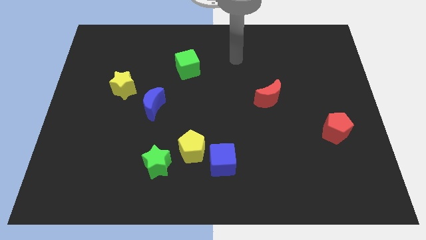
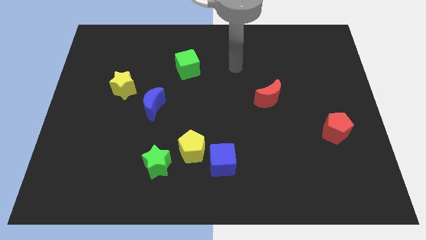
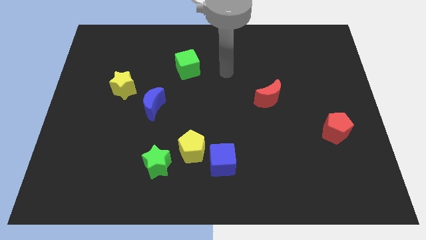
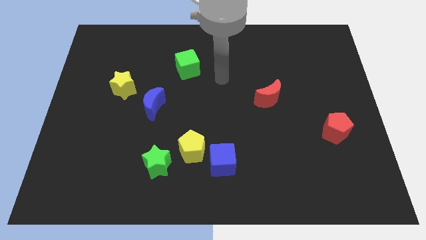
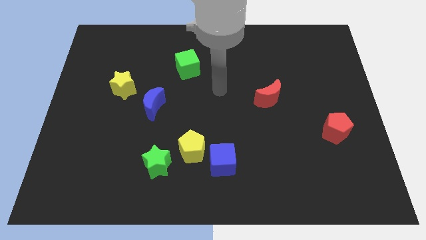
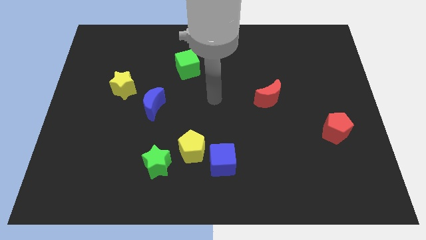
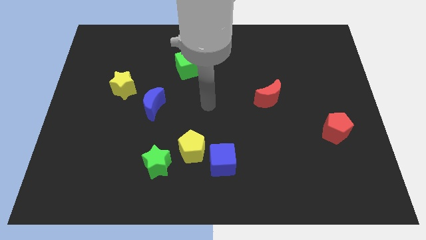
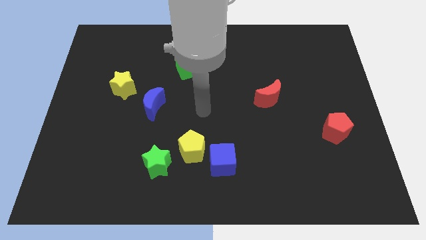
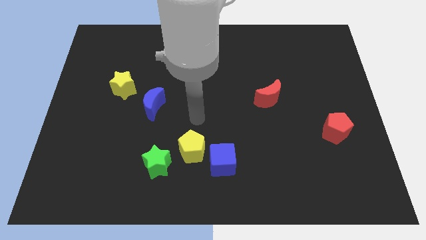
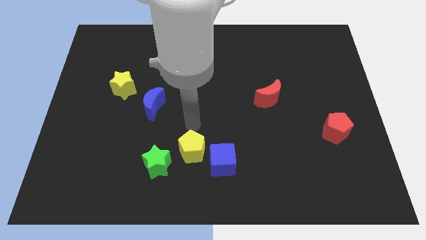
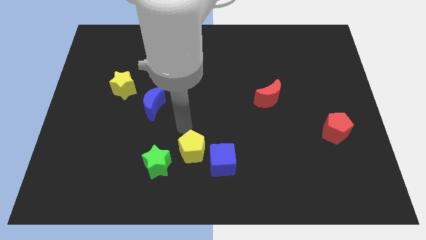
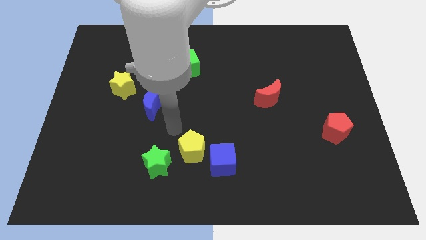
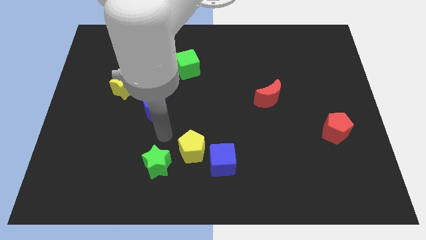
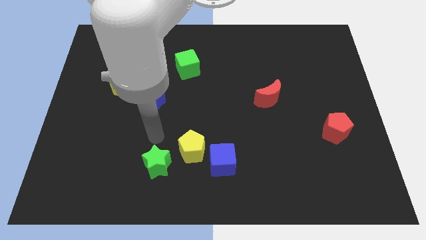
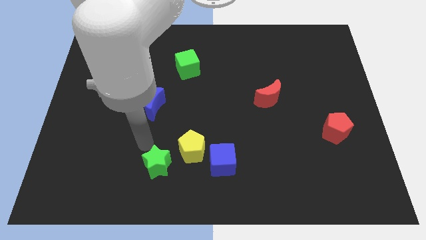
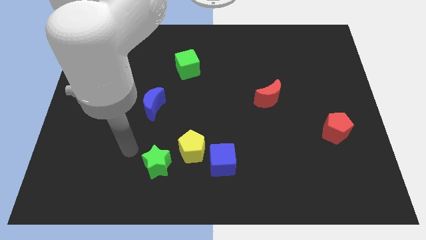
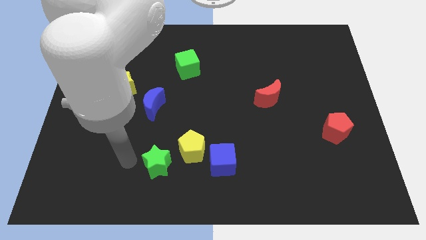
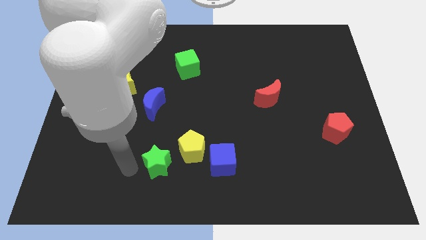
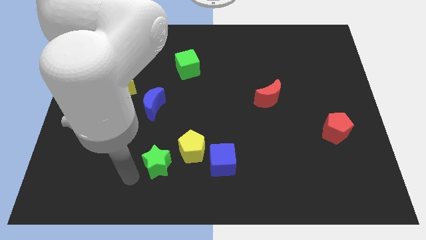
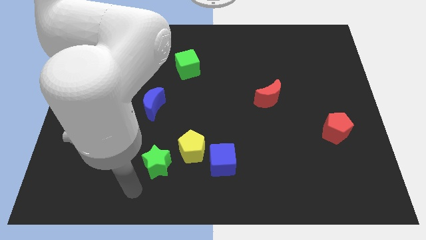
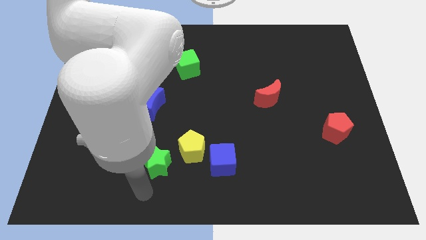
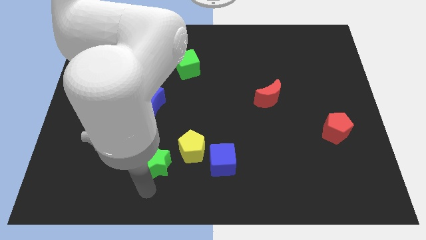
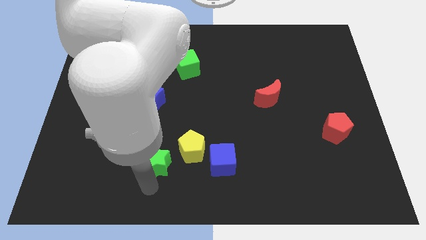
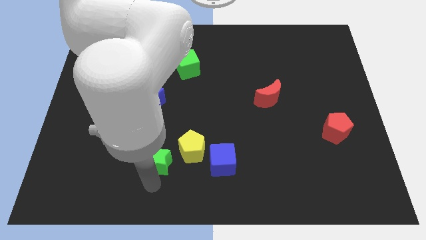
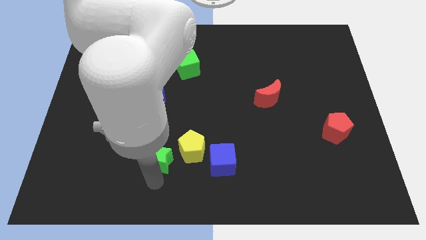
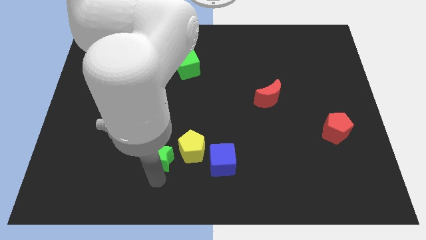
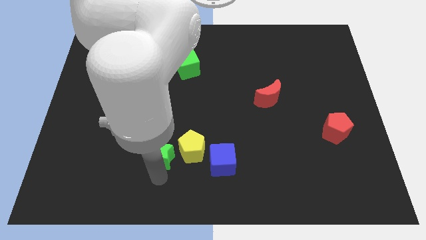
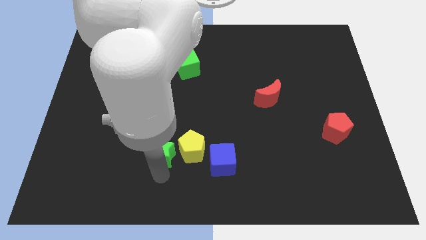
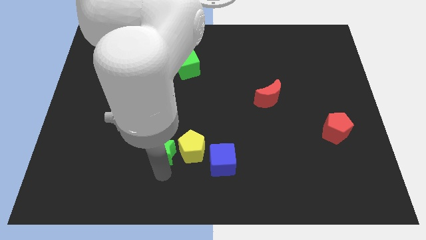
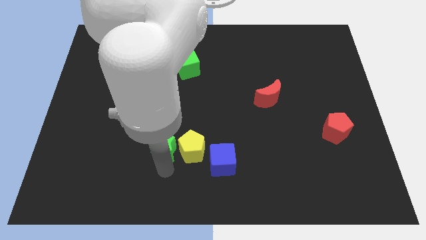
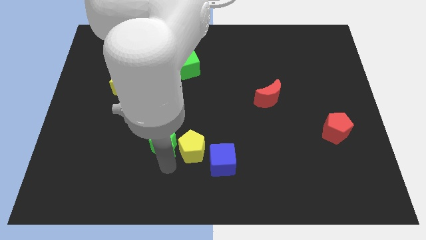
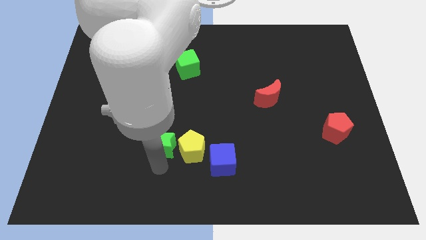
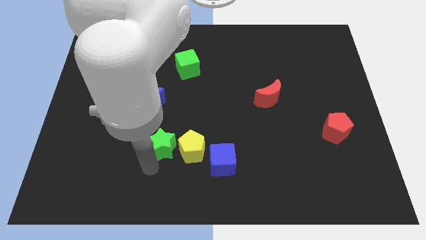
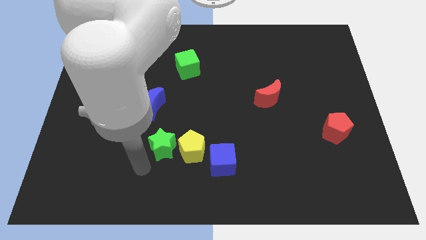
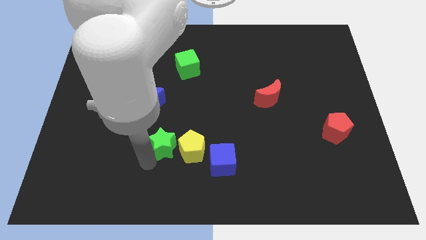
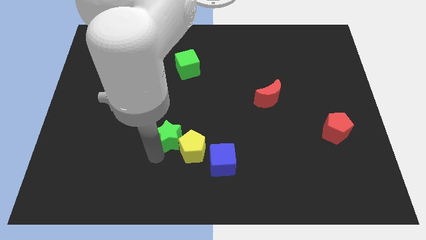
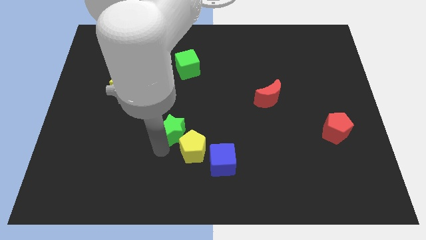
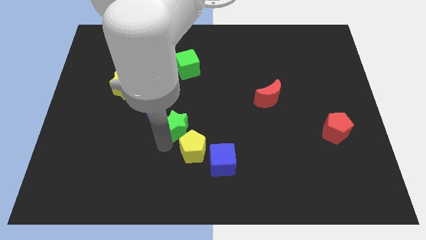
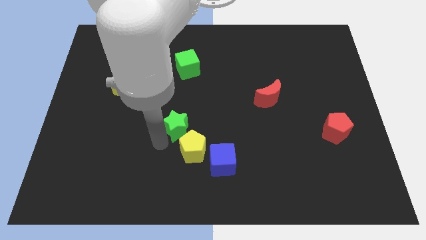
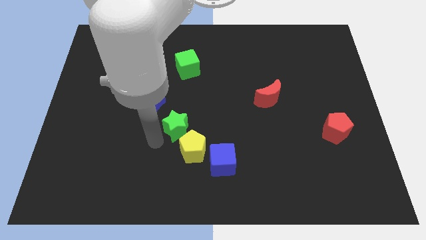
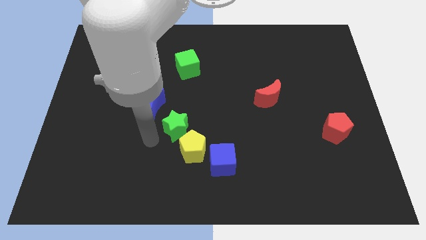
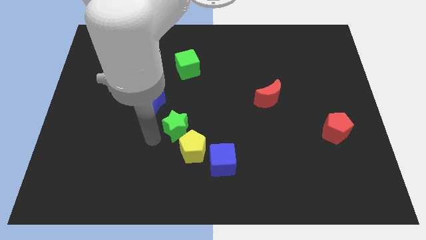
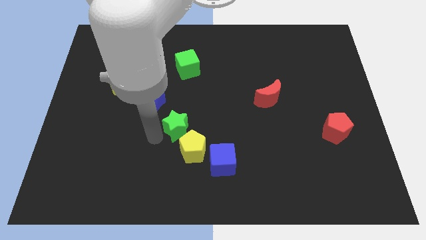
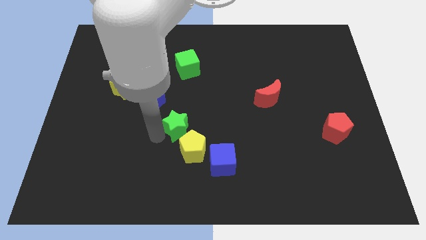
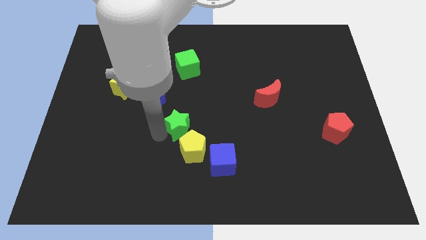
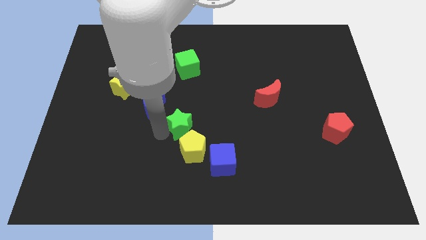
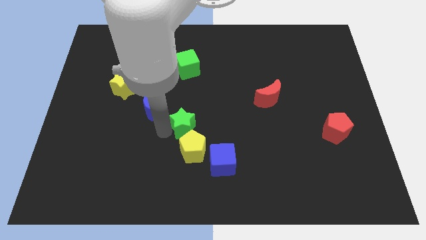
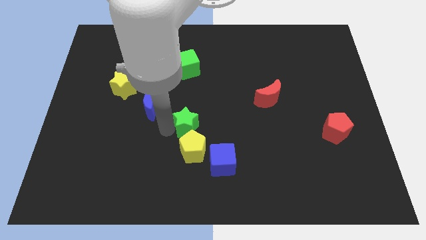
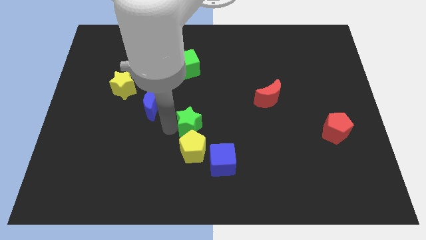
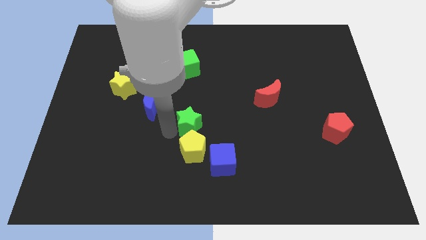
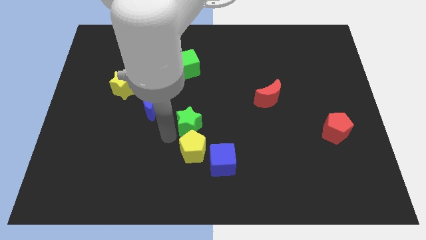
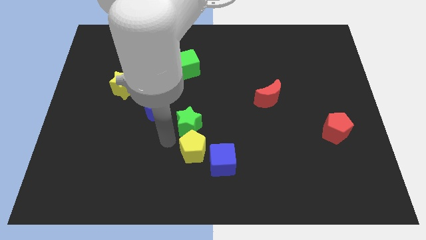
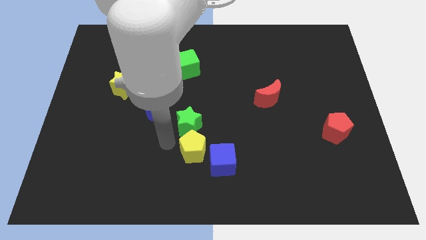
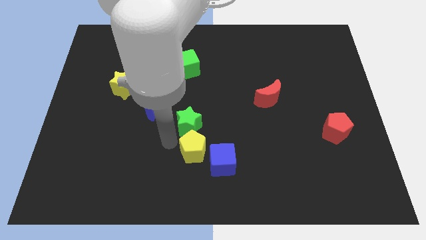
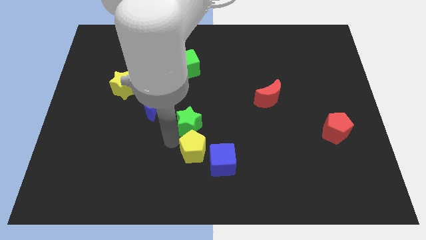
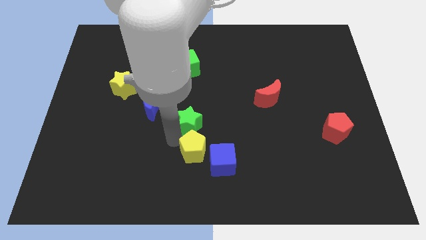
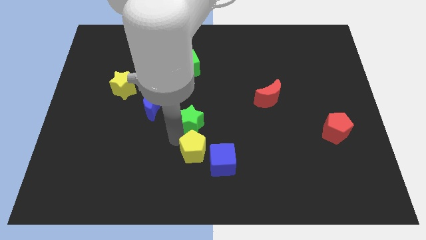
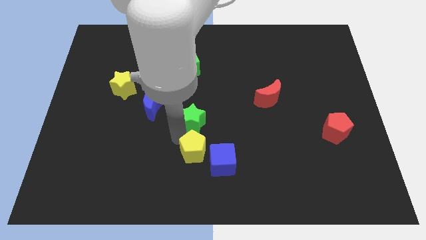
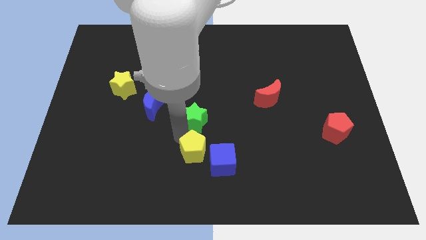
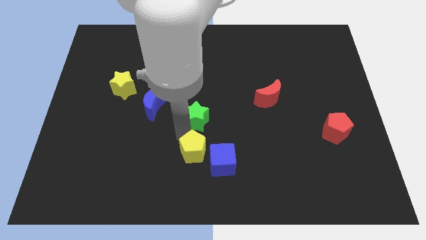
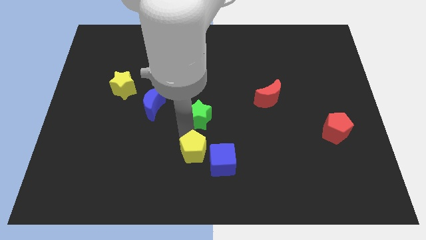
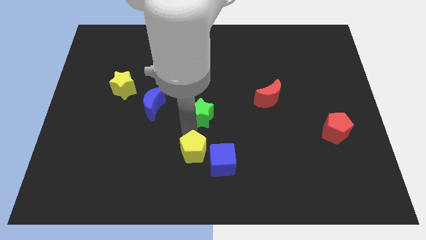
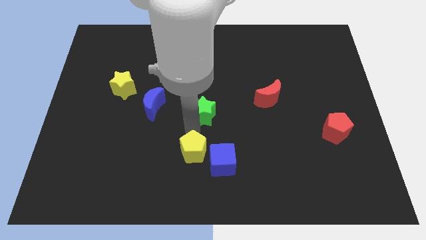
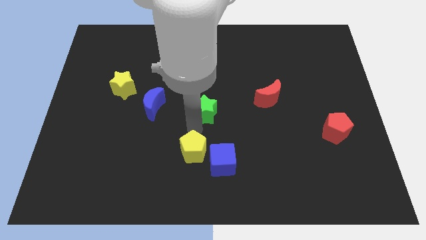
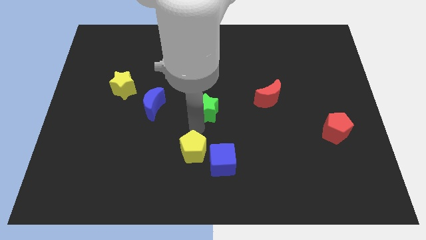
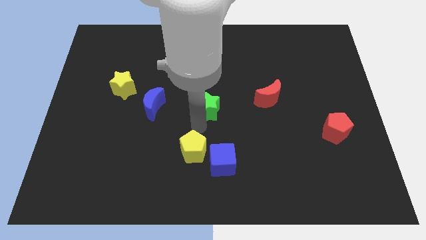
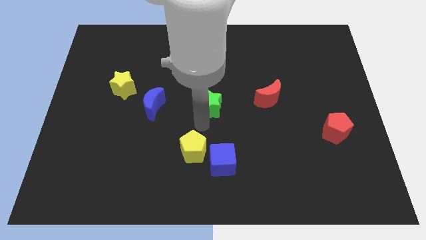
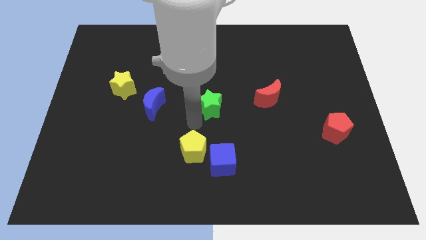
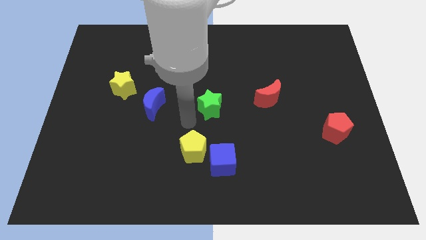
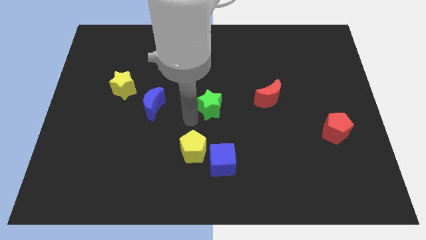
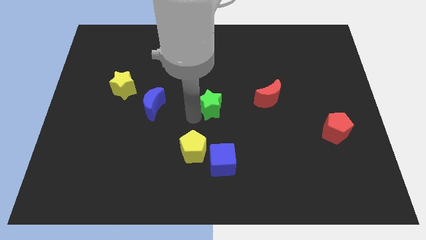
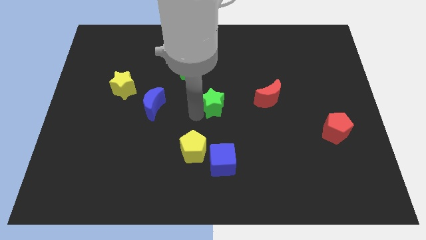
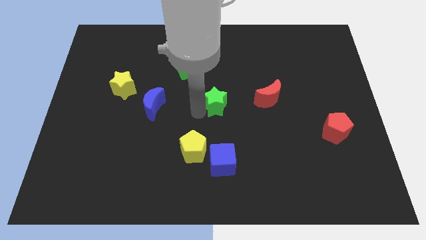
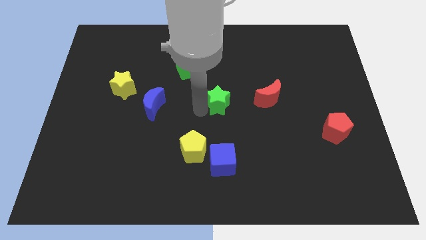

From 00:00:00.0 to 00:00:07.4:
push the green star diagonally upwards and to the right

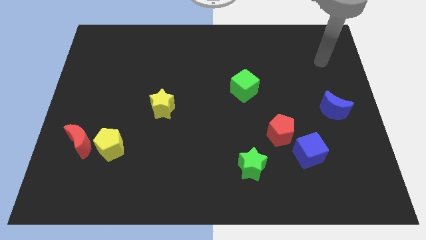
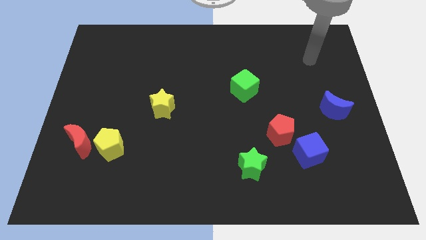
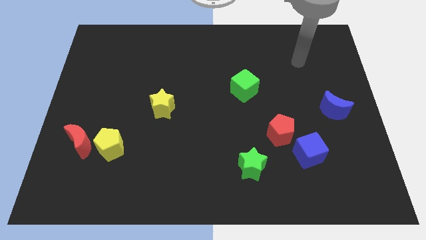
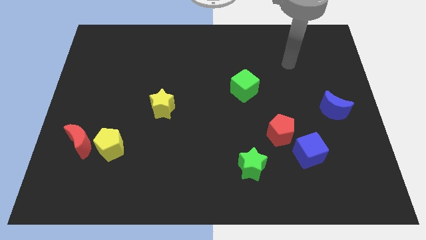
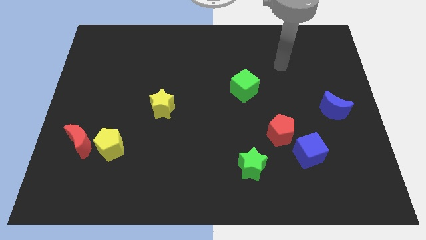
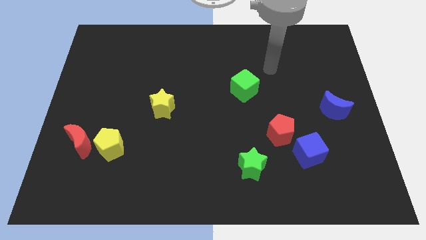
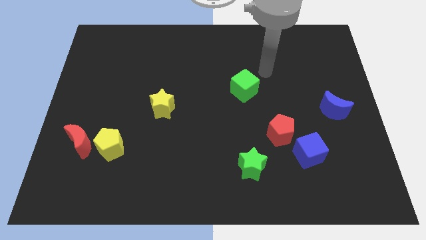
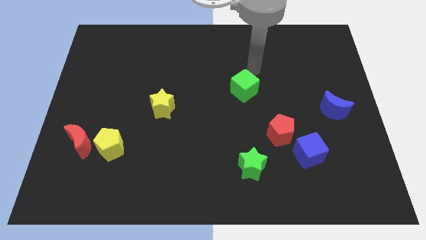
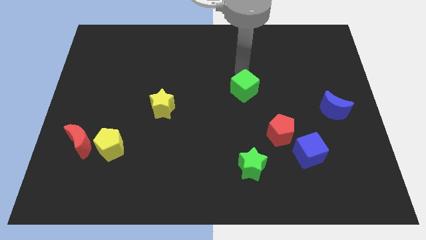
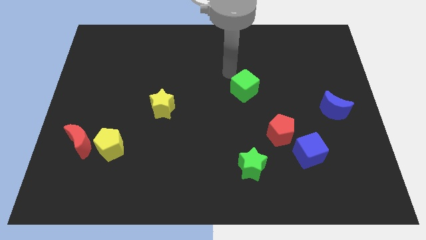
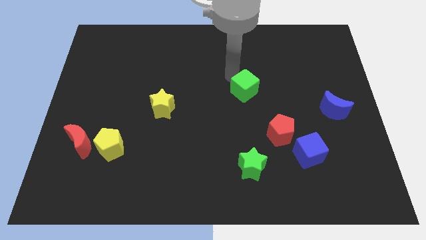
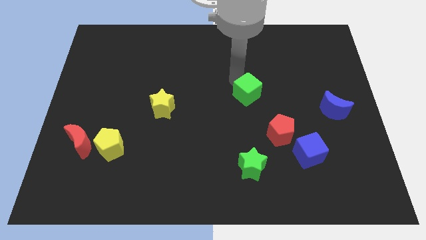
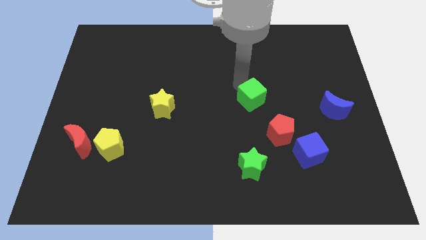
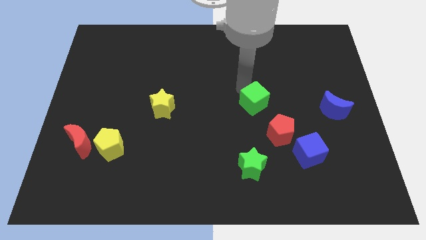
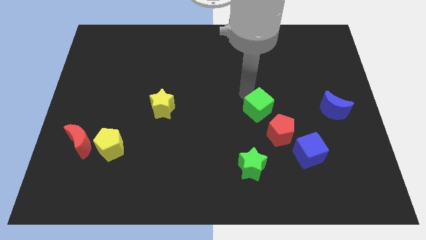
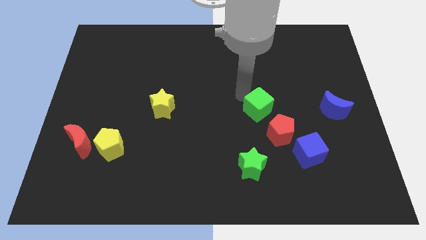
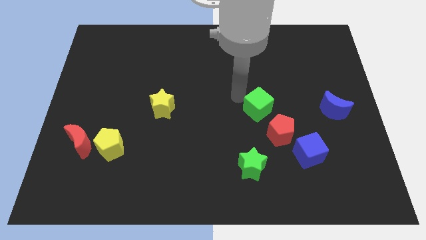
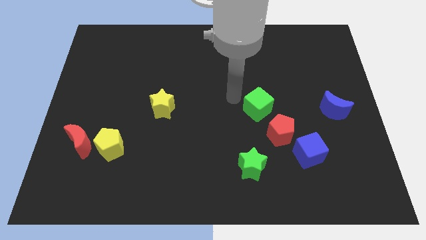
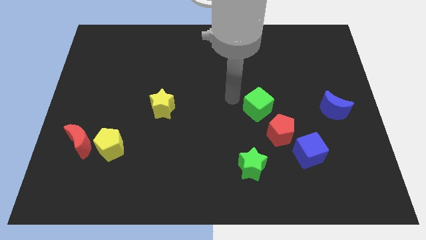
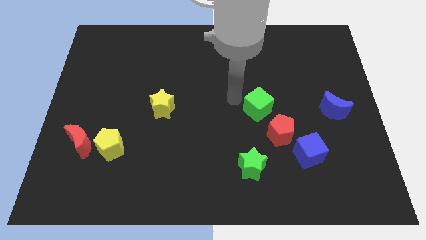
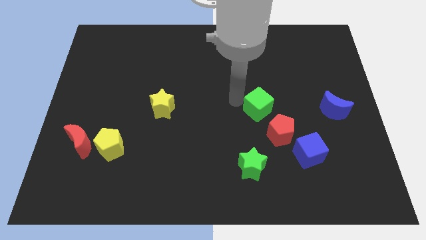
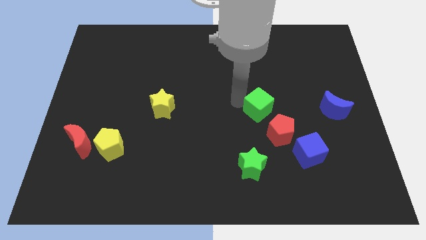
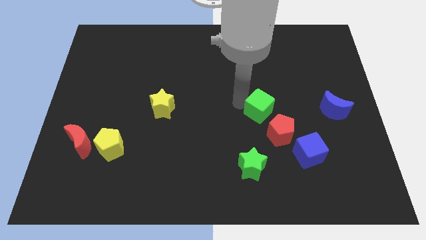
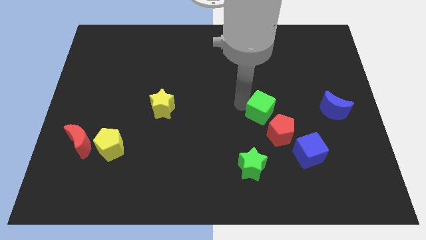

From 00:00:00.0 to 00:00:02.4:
slide the green cube downwards and then to the right a little
